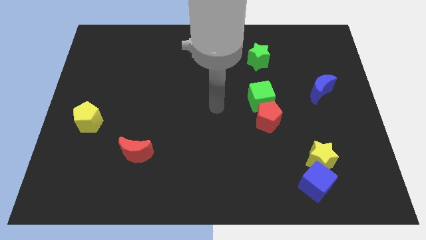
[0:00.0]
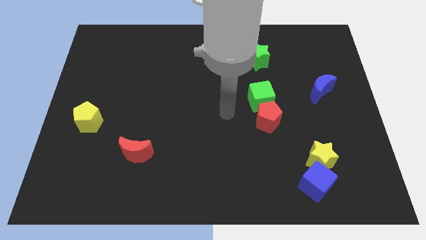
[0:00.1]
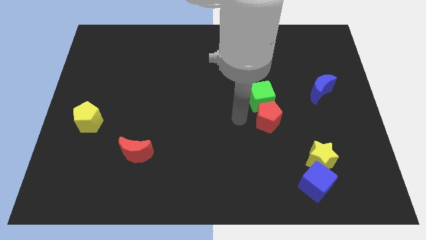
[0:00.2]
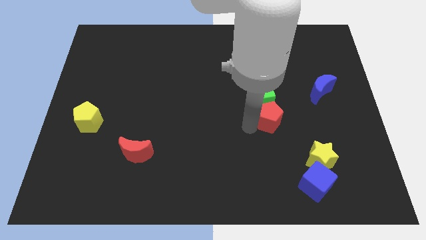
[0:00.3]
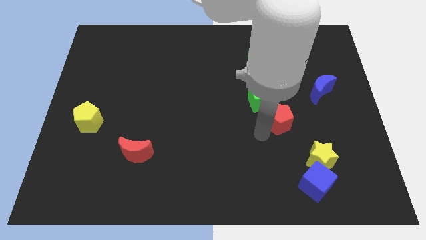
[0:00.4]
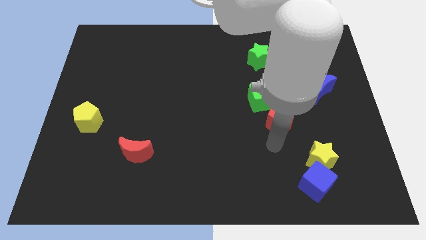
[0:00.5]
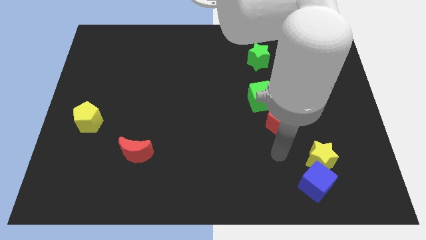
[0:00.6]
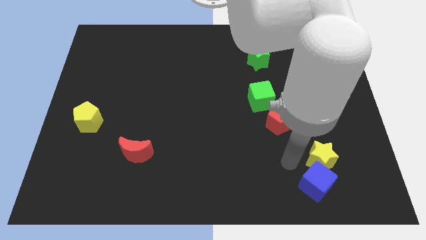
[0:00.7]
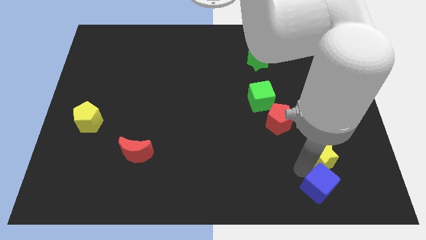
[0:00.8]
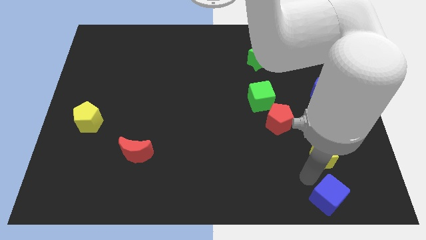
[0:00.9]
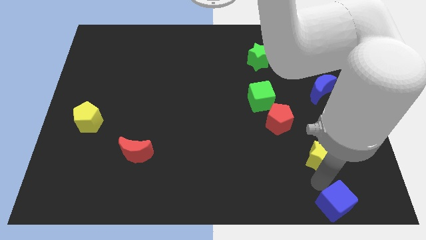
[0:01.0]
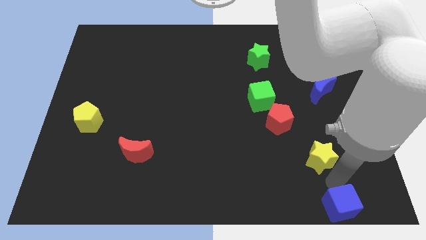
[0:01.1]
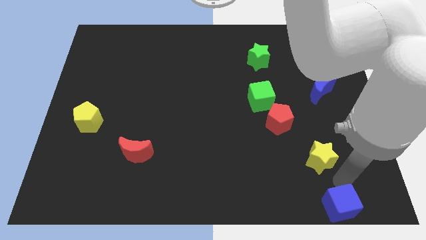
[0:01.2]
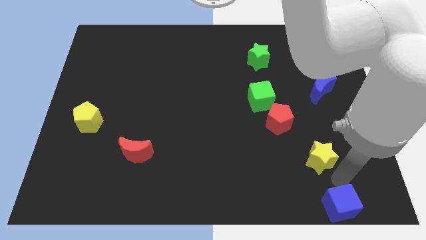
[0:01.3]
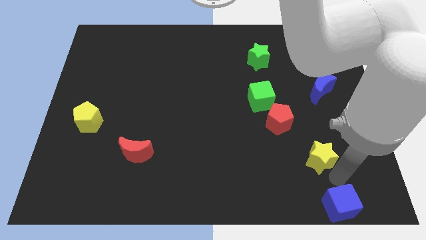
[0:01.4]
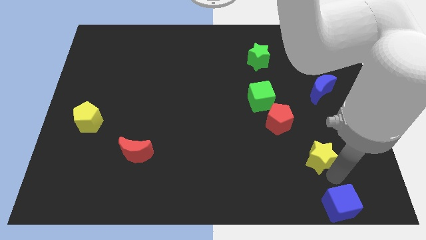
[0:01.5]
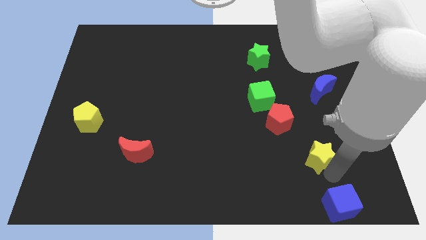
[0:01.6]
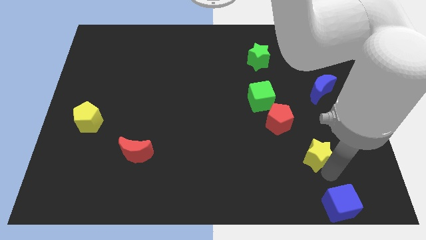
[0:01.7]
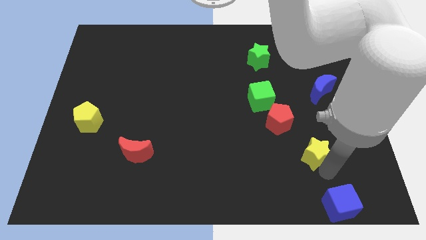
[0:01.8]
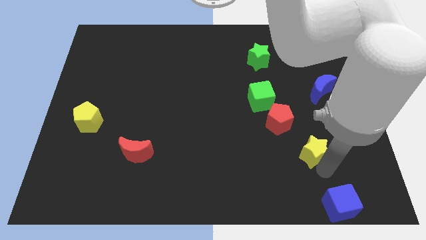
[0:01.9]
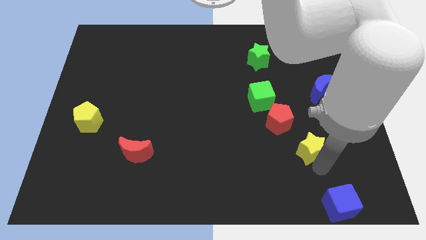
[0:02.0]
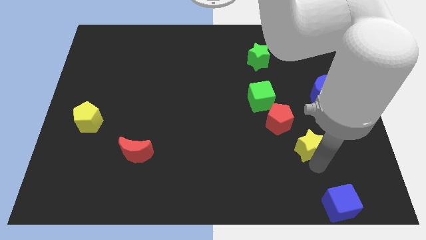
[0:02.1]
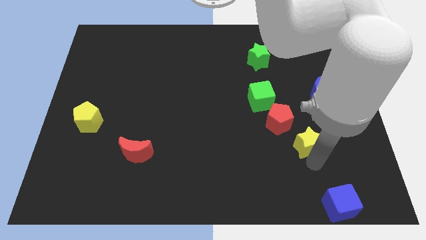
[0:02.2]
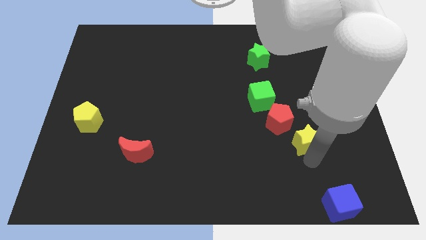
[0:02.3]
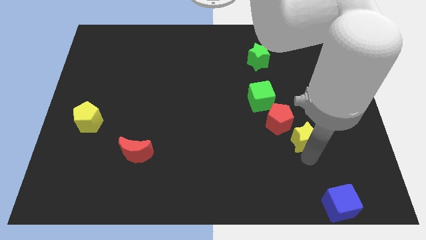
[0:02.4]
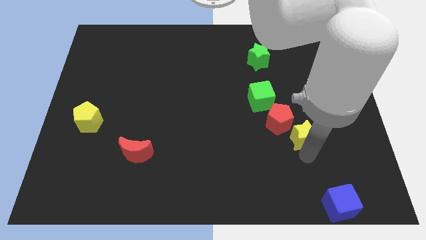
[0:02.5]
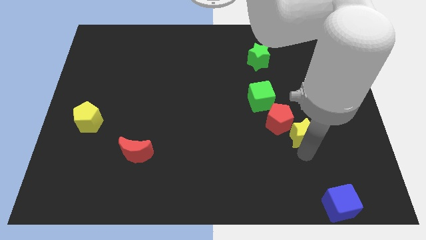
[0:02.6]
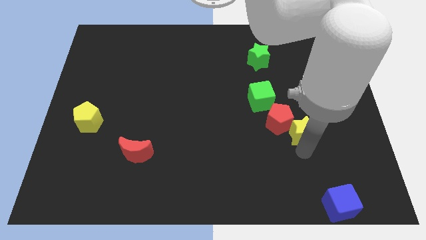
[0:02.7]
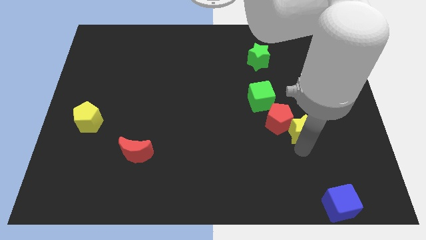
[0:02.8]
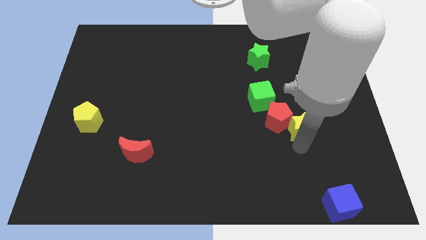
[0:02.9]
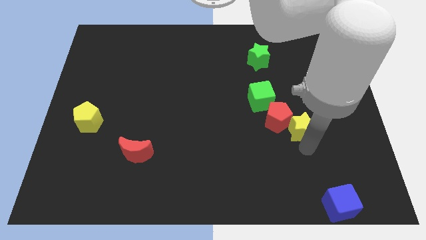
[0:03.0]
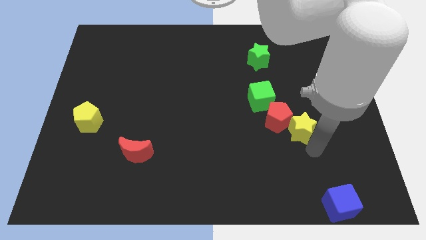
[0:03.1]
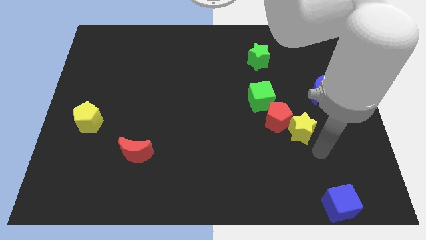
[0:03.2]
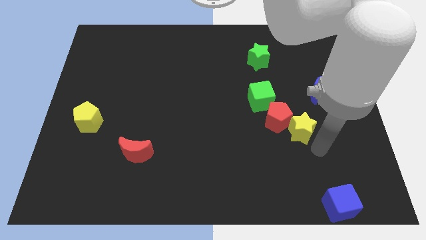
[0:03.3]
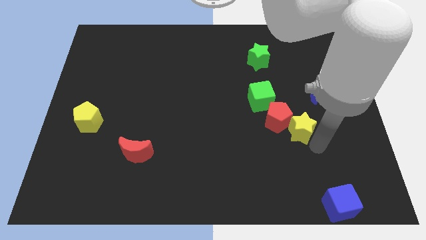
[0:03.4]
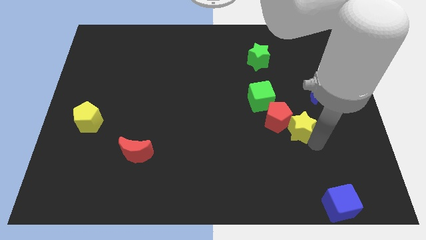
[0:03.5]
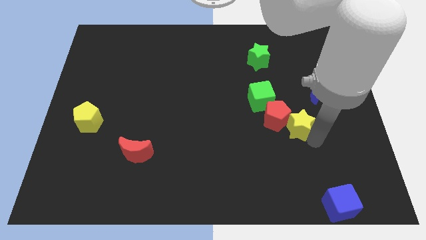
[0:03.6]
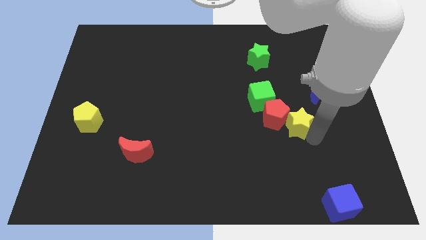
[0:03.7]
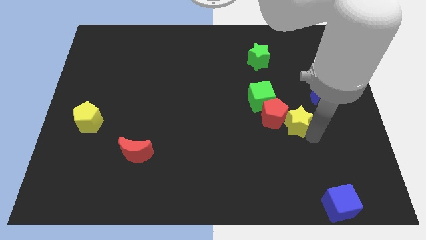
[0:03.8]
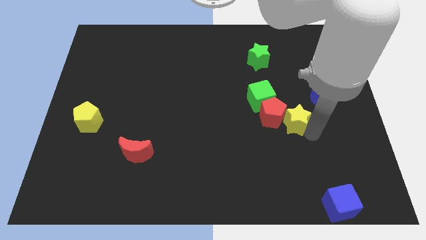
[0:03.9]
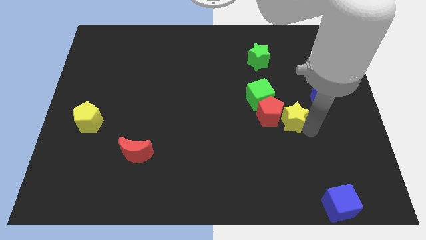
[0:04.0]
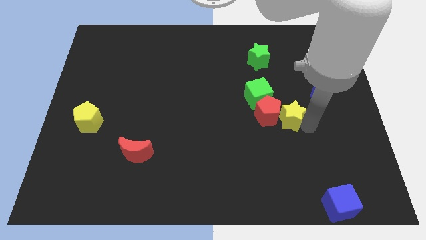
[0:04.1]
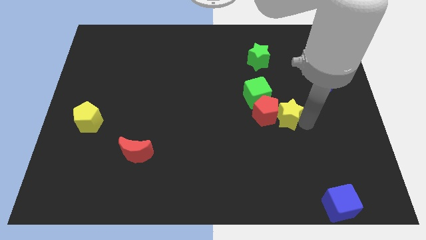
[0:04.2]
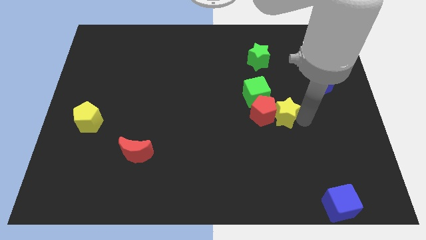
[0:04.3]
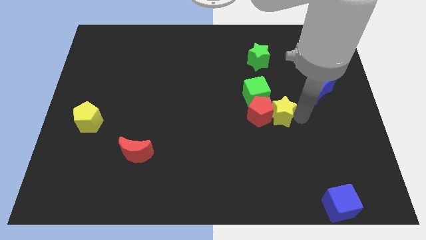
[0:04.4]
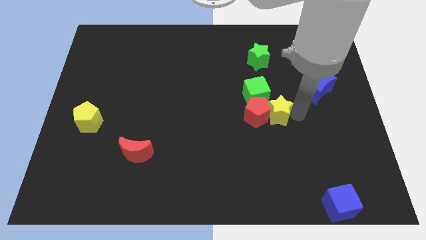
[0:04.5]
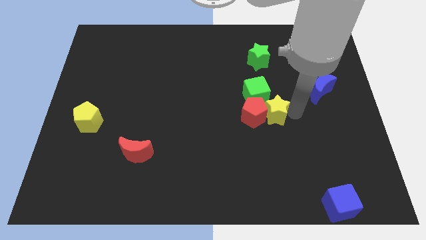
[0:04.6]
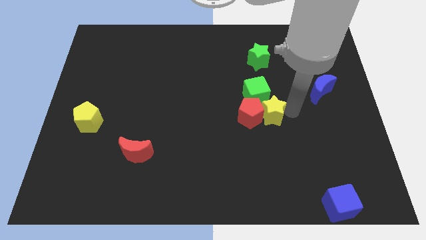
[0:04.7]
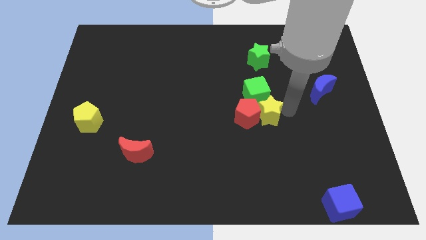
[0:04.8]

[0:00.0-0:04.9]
push the yellow star towards the green cube

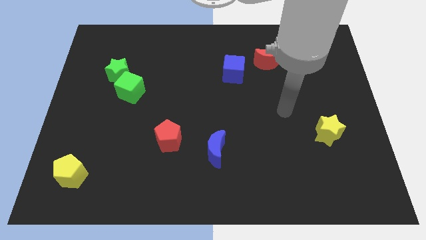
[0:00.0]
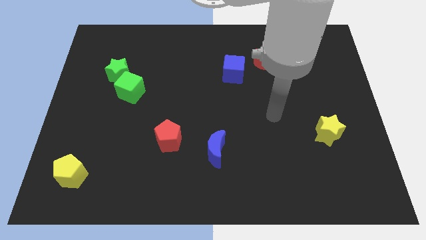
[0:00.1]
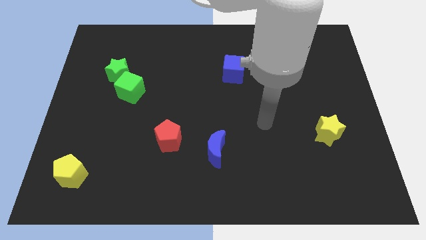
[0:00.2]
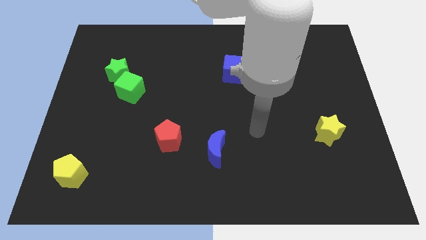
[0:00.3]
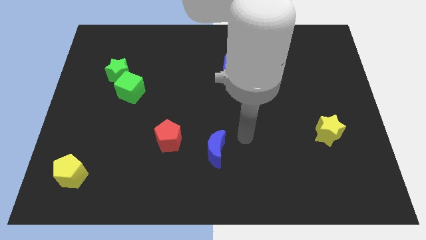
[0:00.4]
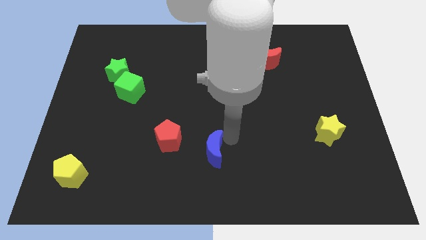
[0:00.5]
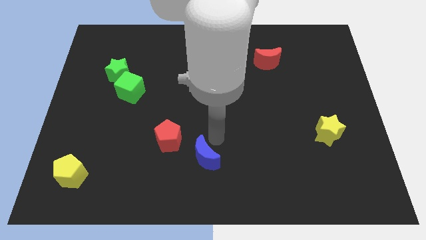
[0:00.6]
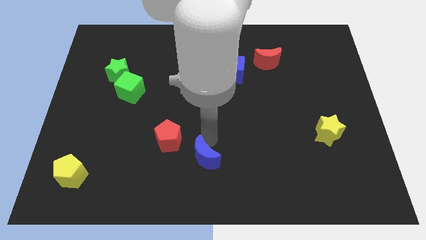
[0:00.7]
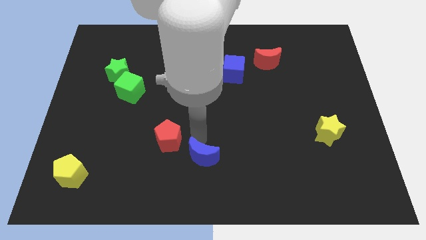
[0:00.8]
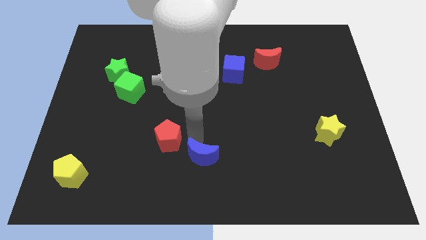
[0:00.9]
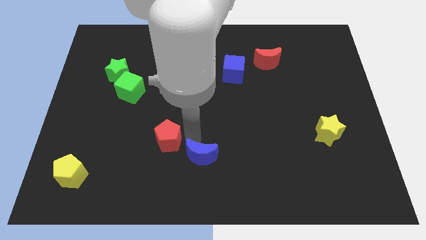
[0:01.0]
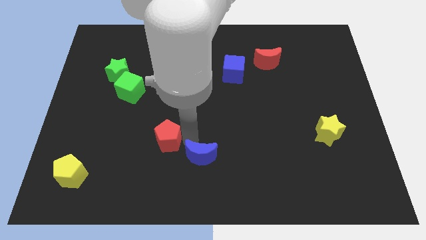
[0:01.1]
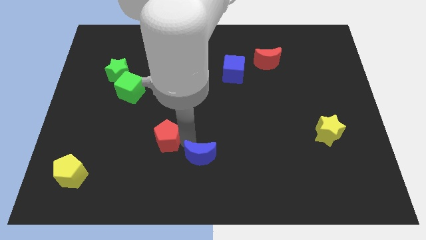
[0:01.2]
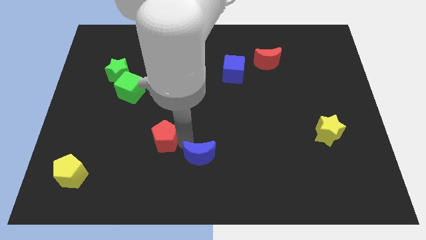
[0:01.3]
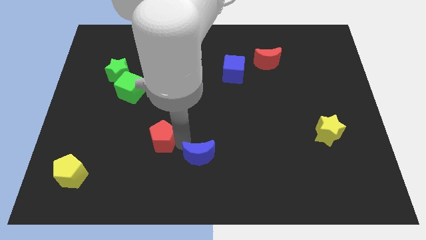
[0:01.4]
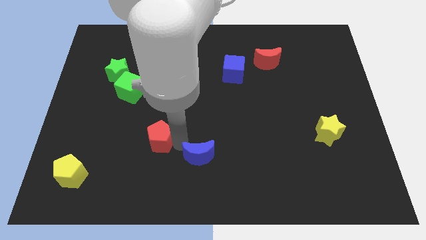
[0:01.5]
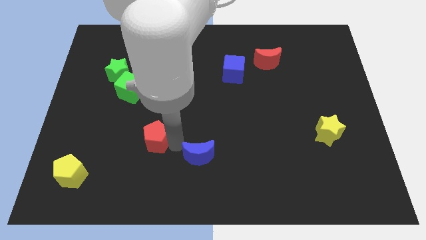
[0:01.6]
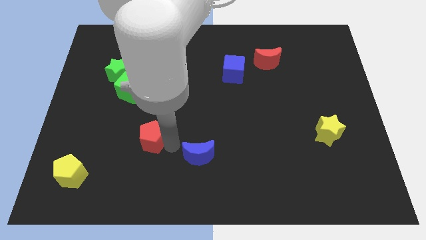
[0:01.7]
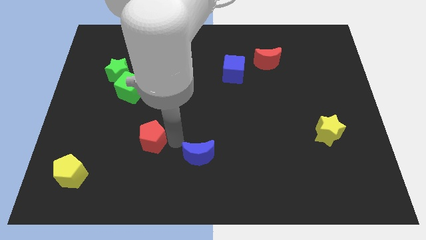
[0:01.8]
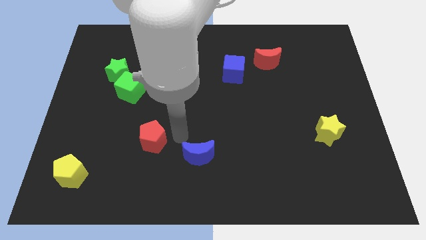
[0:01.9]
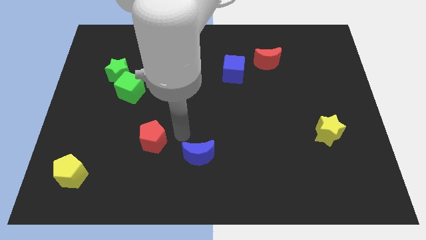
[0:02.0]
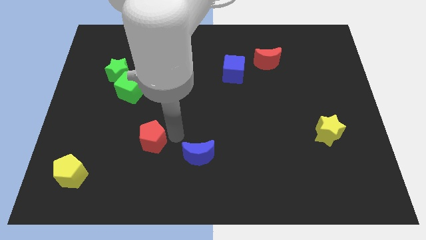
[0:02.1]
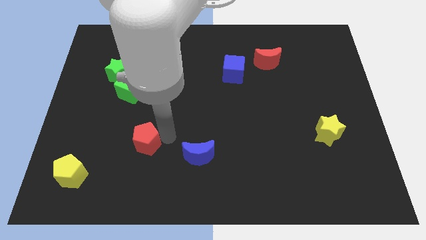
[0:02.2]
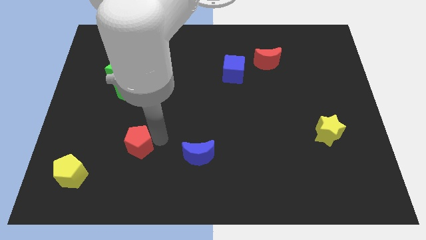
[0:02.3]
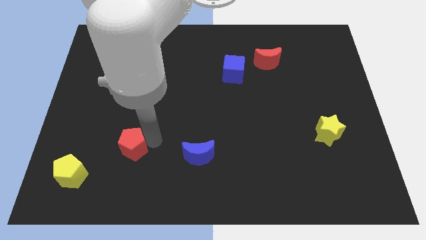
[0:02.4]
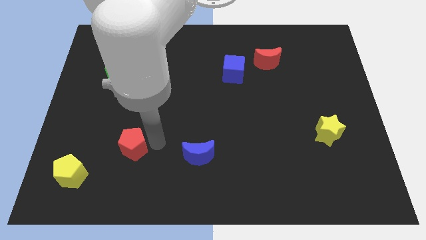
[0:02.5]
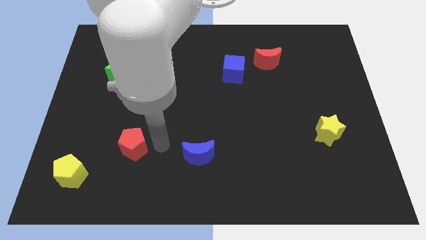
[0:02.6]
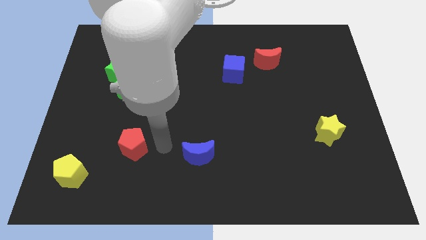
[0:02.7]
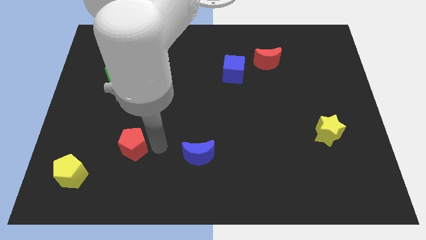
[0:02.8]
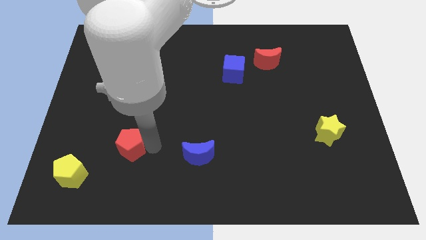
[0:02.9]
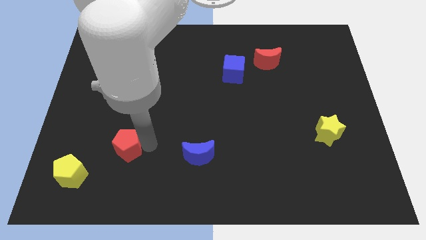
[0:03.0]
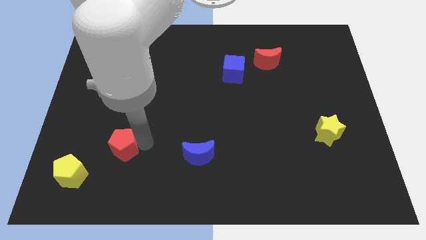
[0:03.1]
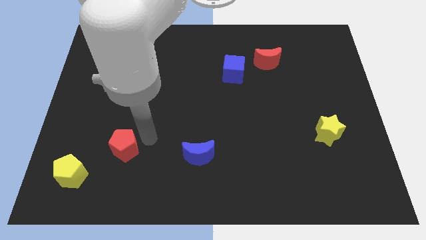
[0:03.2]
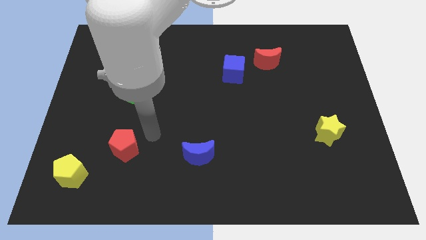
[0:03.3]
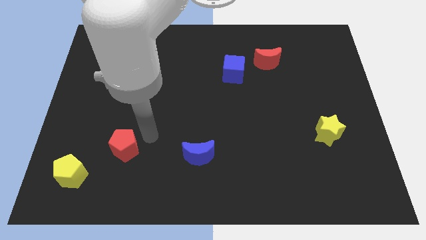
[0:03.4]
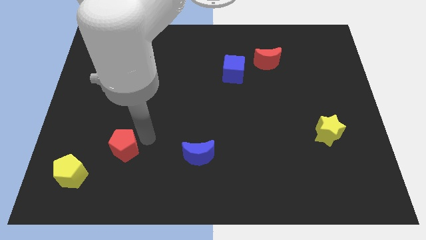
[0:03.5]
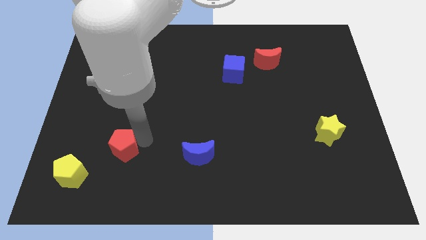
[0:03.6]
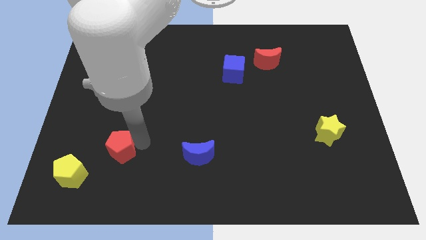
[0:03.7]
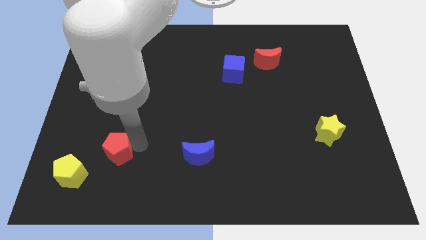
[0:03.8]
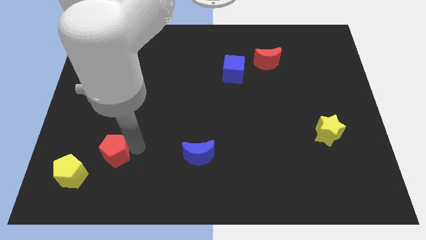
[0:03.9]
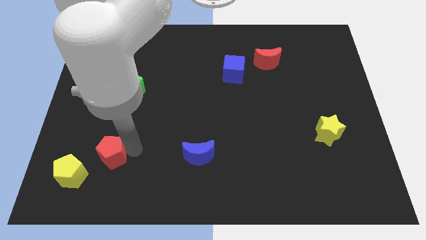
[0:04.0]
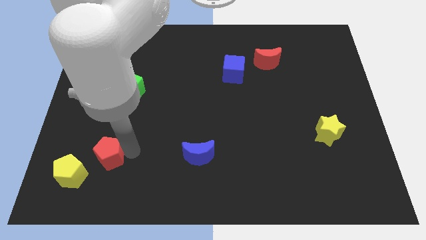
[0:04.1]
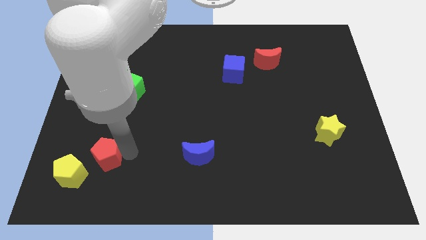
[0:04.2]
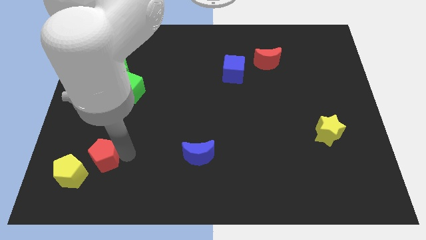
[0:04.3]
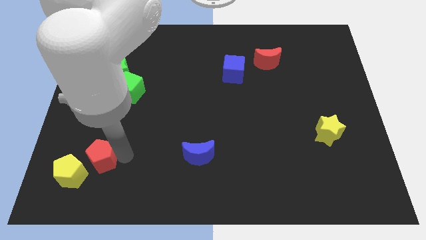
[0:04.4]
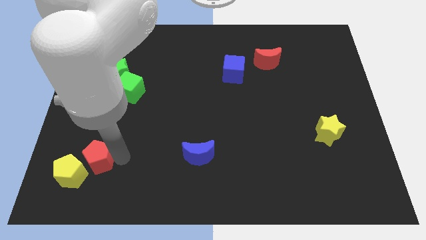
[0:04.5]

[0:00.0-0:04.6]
put the red pentagon towards the yellow pentagon
